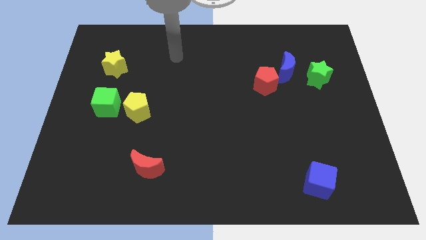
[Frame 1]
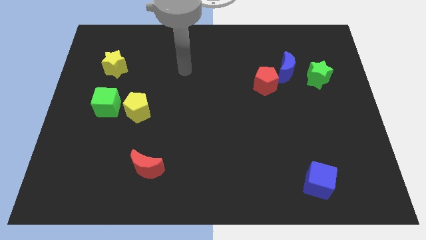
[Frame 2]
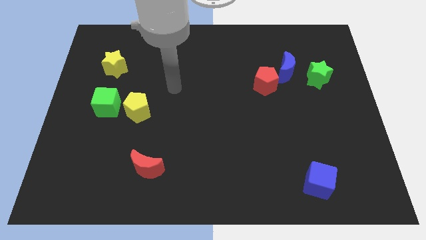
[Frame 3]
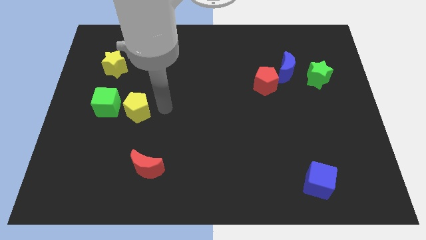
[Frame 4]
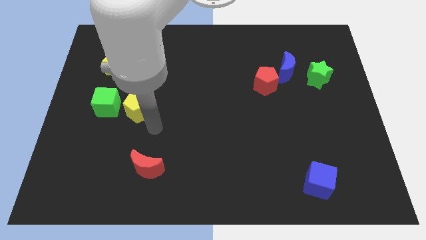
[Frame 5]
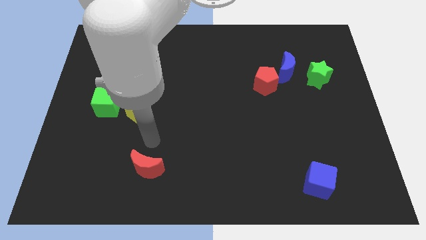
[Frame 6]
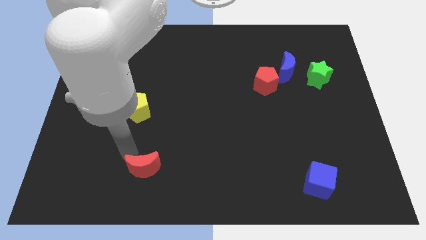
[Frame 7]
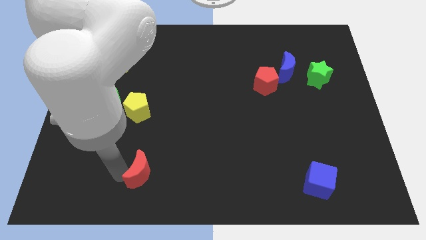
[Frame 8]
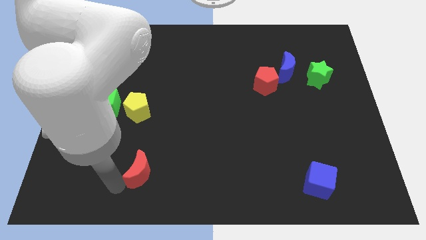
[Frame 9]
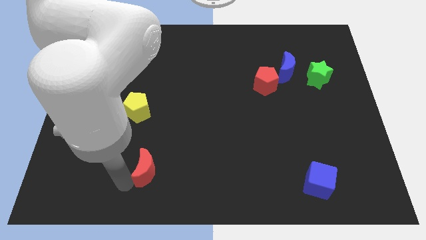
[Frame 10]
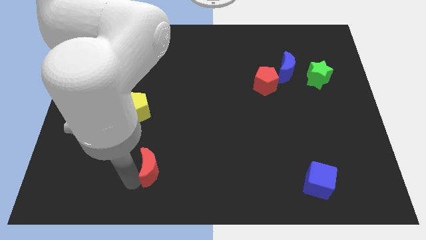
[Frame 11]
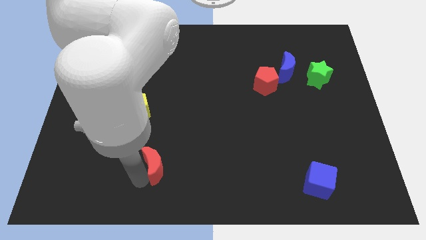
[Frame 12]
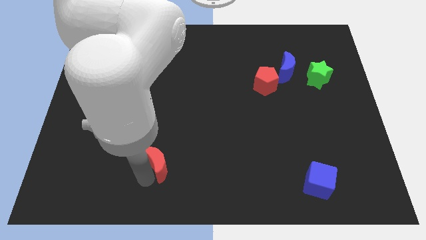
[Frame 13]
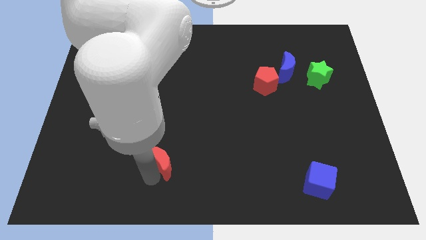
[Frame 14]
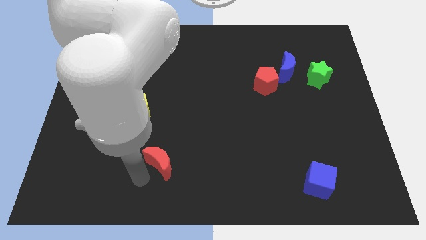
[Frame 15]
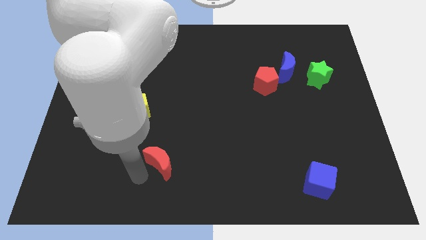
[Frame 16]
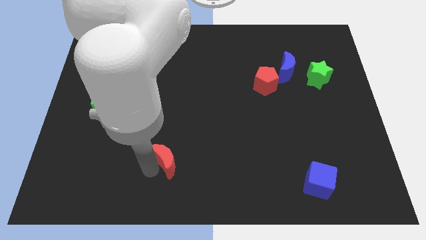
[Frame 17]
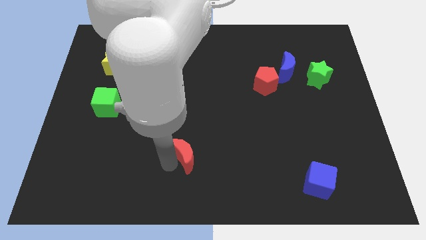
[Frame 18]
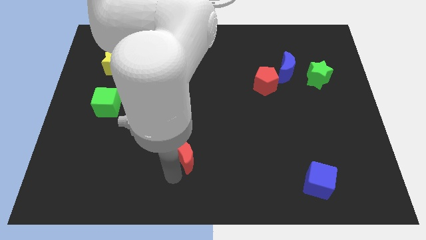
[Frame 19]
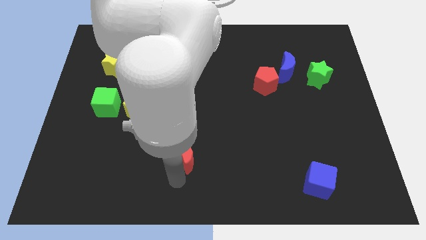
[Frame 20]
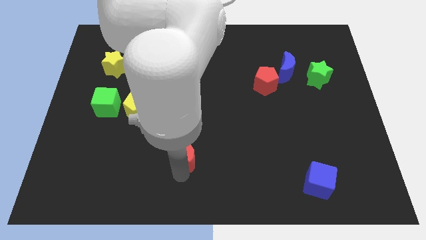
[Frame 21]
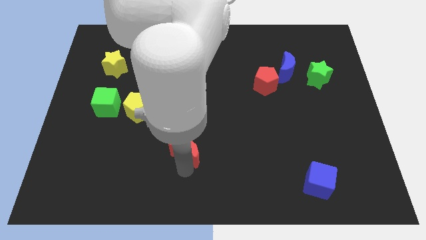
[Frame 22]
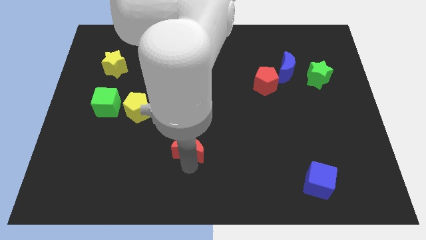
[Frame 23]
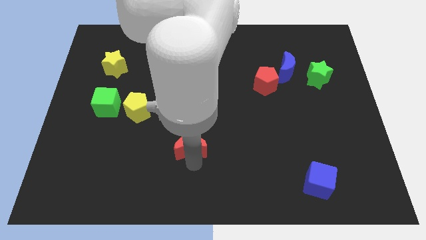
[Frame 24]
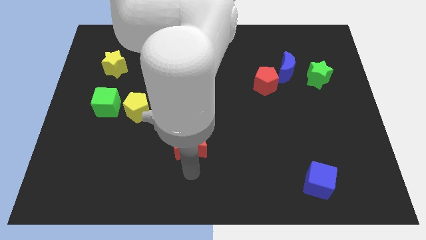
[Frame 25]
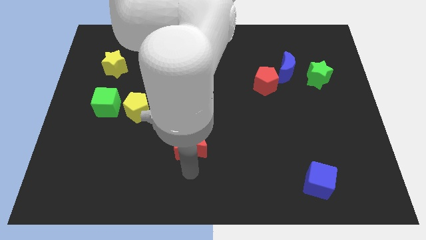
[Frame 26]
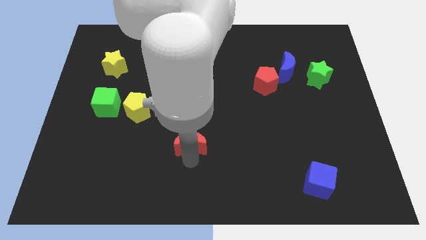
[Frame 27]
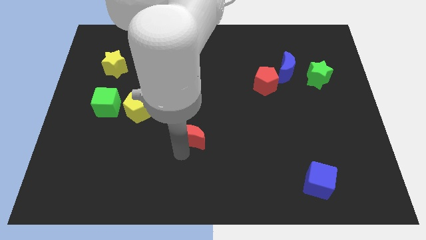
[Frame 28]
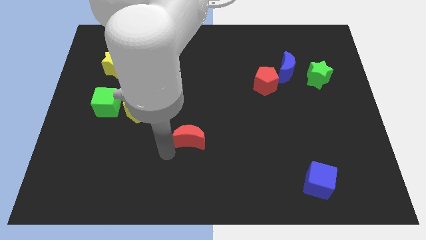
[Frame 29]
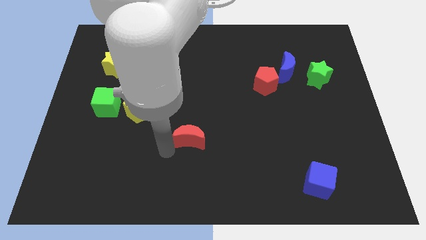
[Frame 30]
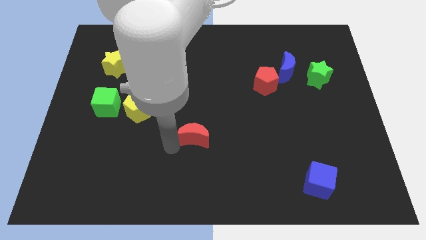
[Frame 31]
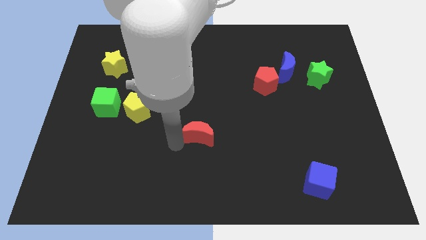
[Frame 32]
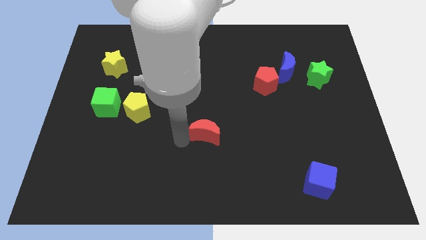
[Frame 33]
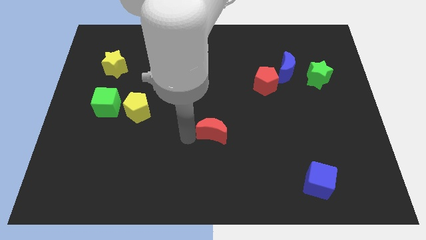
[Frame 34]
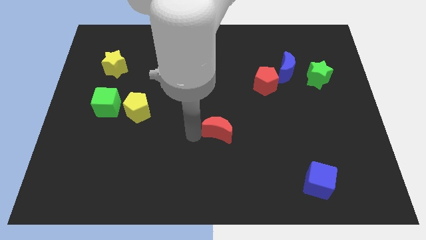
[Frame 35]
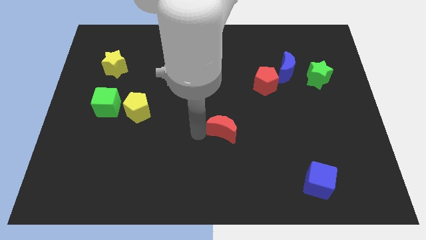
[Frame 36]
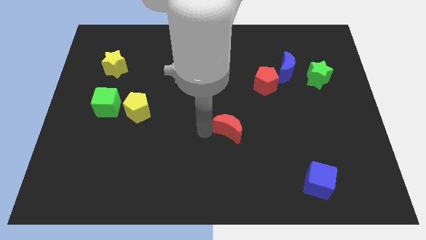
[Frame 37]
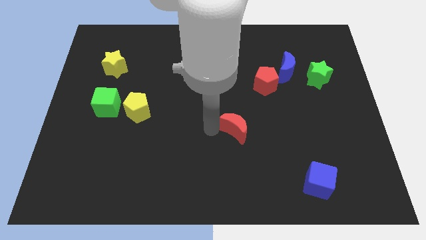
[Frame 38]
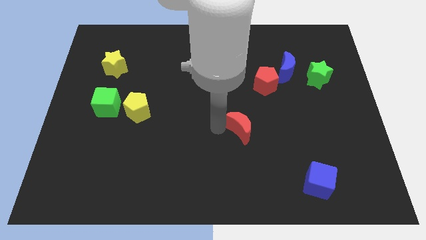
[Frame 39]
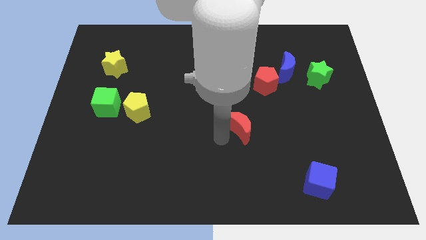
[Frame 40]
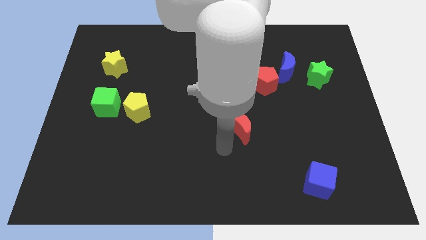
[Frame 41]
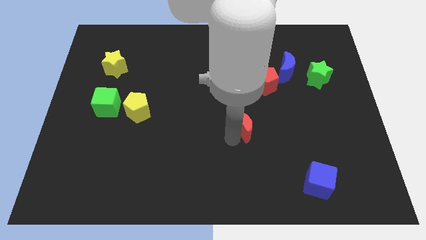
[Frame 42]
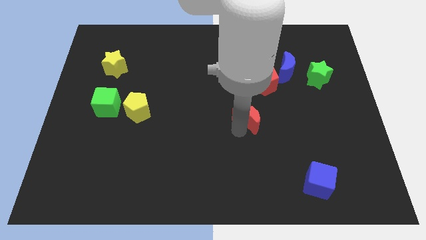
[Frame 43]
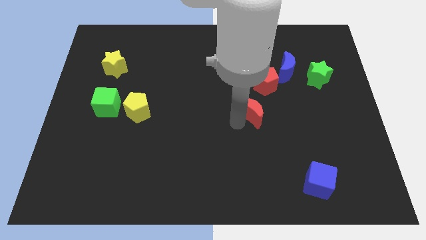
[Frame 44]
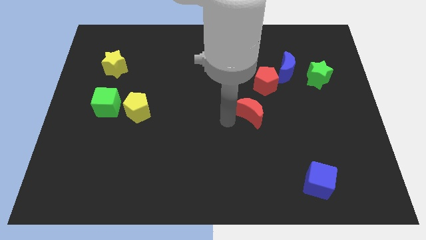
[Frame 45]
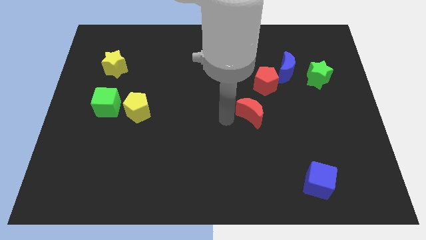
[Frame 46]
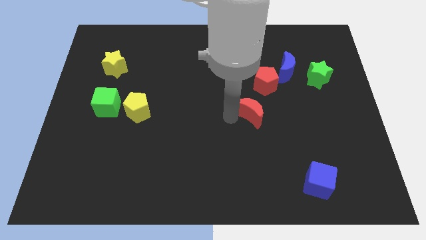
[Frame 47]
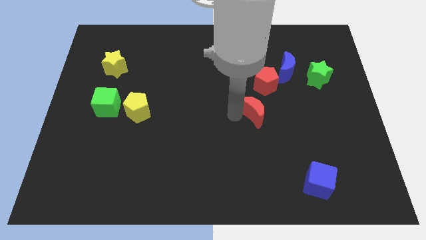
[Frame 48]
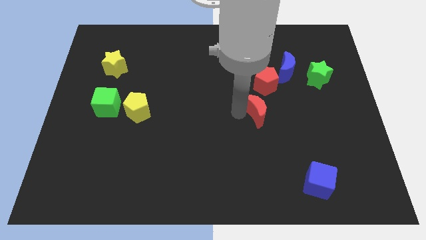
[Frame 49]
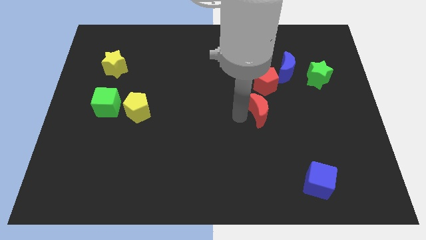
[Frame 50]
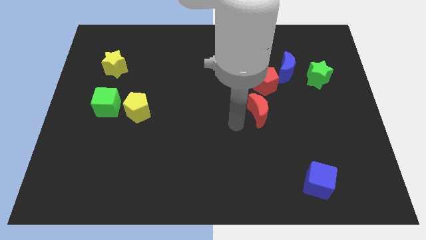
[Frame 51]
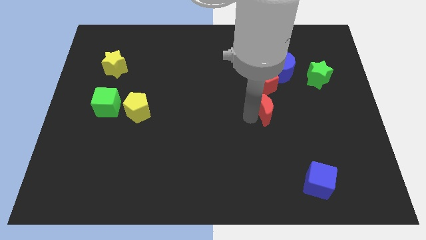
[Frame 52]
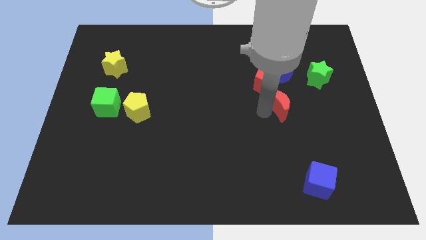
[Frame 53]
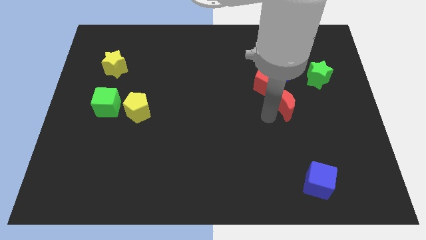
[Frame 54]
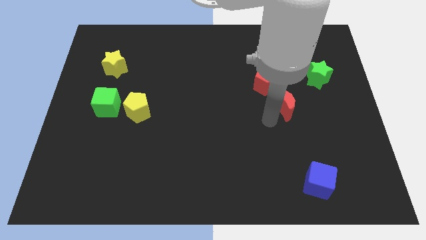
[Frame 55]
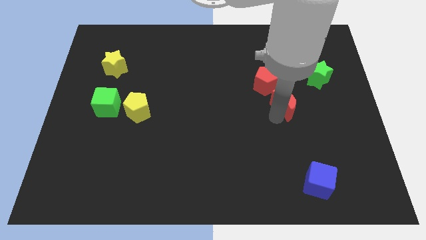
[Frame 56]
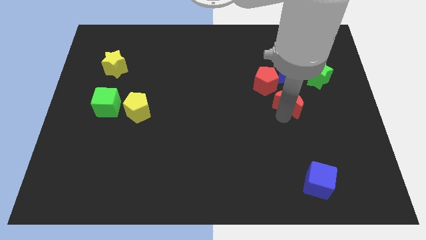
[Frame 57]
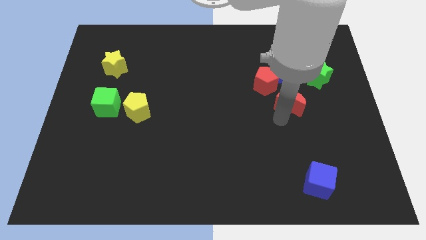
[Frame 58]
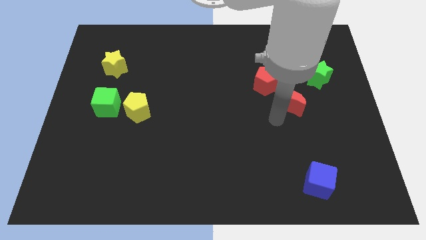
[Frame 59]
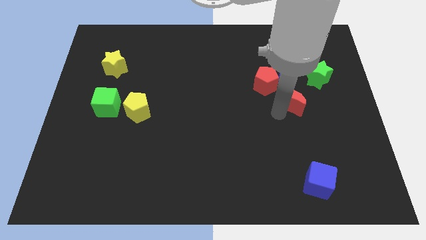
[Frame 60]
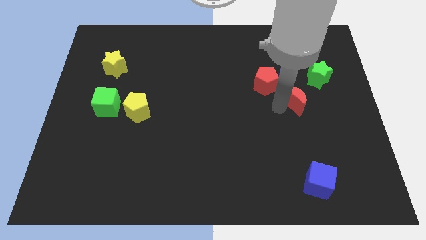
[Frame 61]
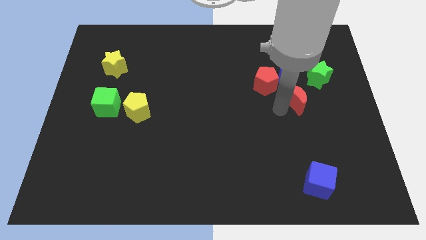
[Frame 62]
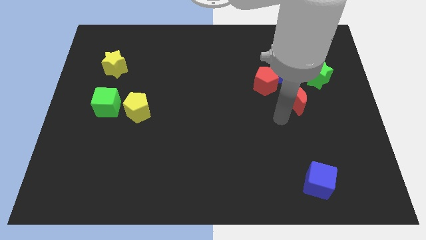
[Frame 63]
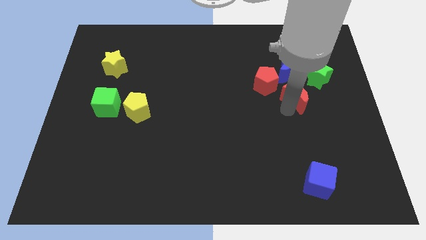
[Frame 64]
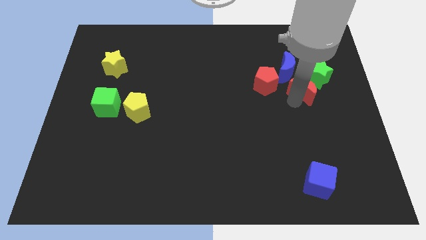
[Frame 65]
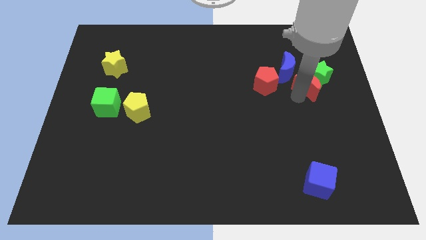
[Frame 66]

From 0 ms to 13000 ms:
slide the red moon to the green star

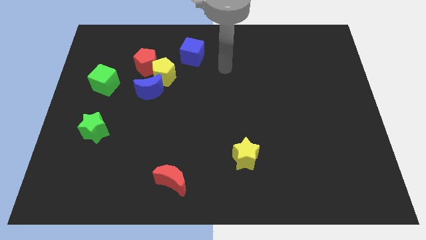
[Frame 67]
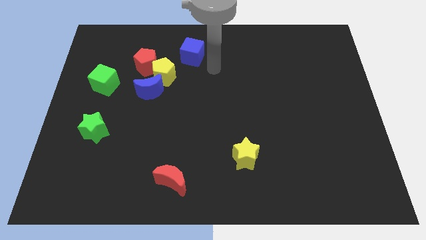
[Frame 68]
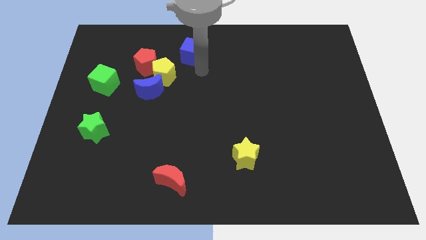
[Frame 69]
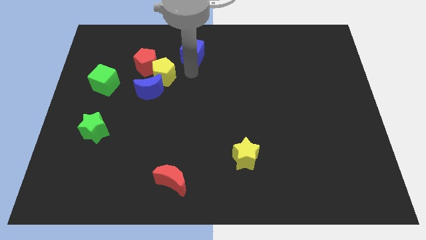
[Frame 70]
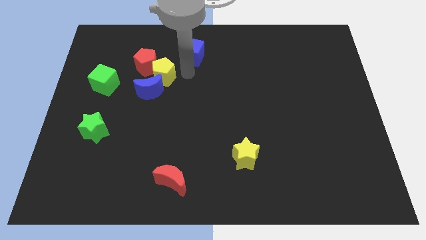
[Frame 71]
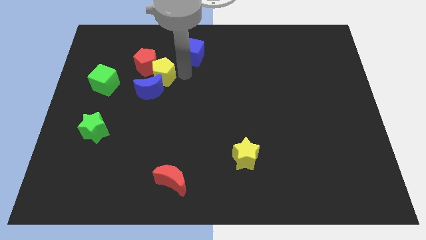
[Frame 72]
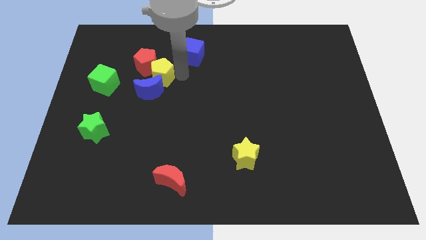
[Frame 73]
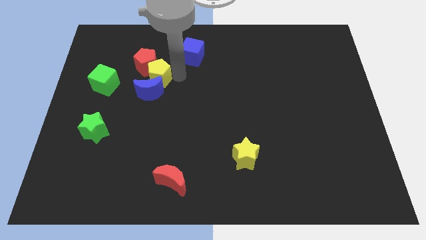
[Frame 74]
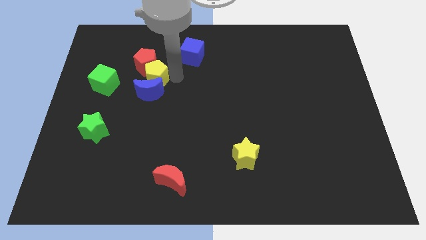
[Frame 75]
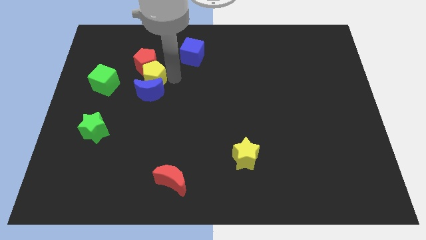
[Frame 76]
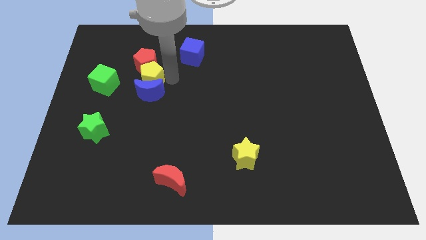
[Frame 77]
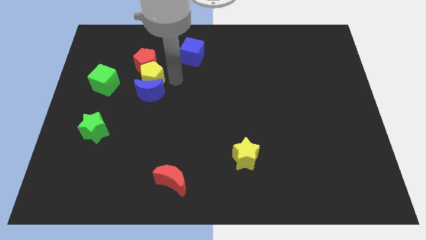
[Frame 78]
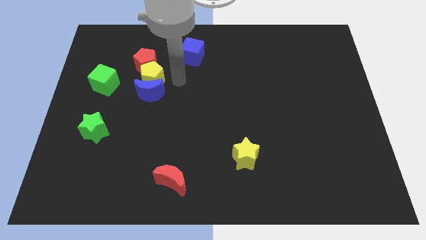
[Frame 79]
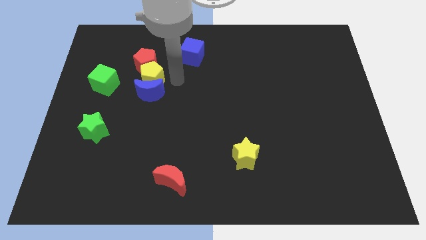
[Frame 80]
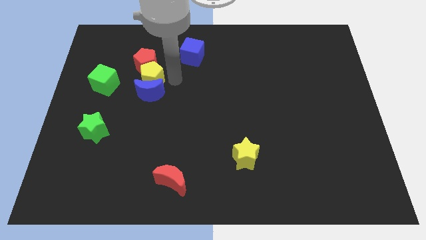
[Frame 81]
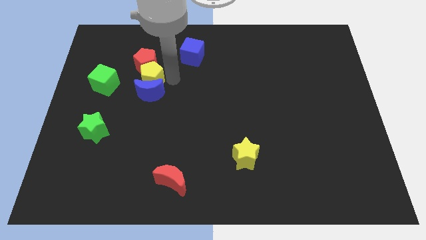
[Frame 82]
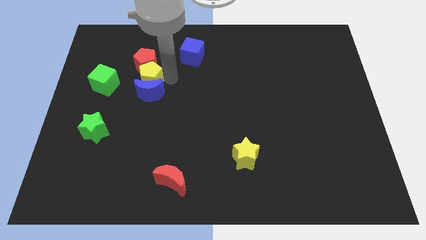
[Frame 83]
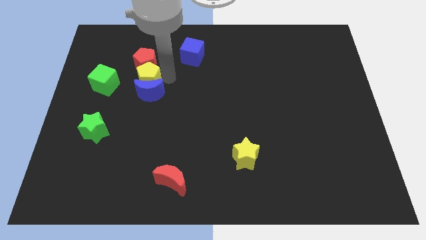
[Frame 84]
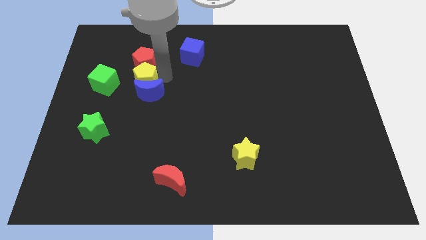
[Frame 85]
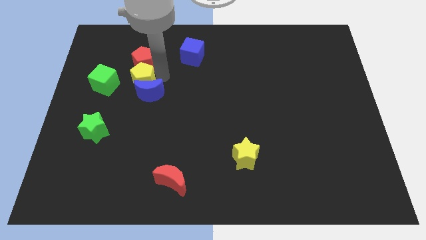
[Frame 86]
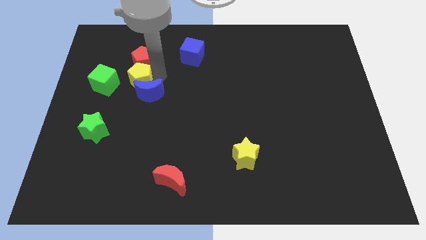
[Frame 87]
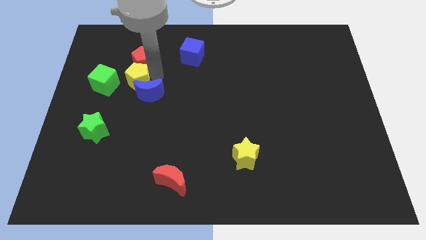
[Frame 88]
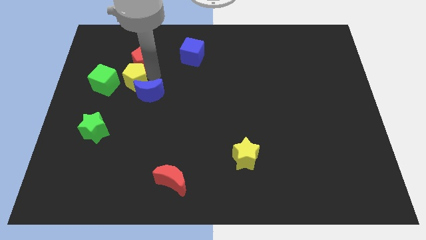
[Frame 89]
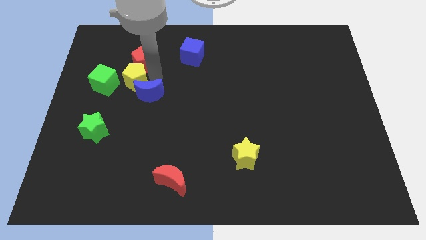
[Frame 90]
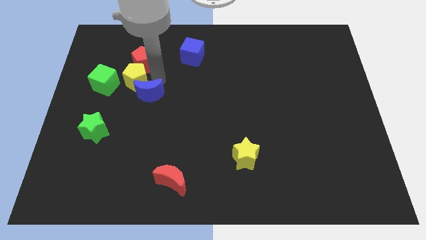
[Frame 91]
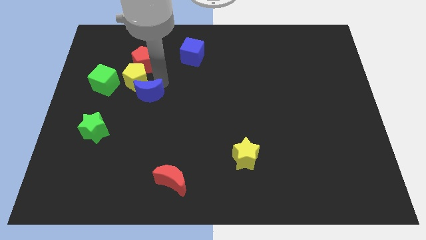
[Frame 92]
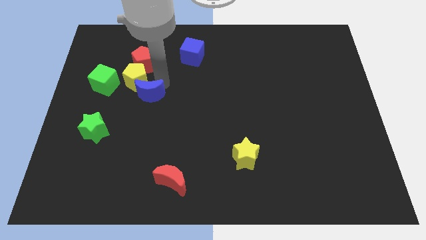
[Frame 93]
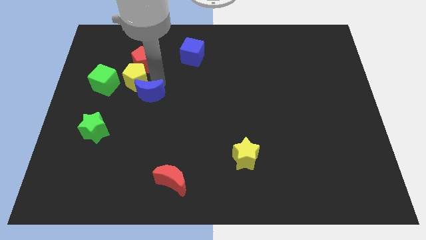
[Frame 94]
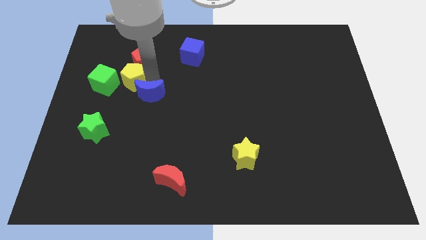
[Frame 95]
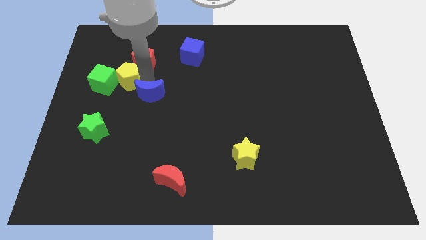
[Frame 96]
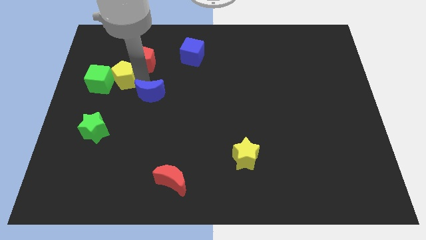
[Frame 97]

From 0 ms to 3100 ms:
put the yellow pentagon next to the green cube
